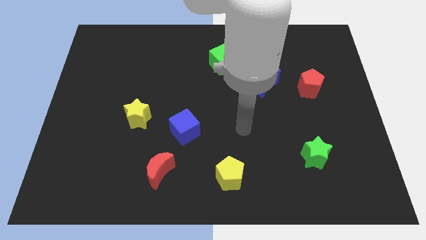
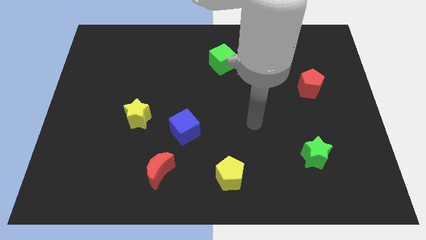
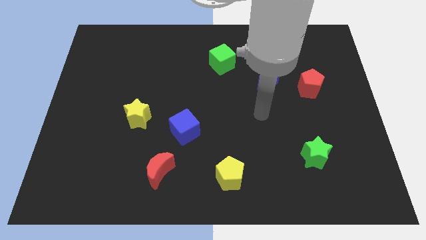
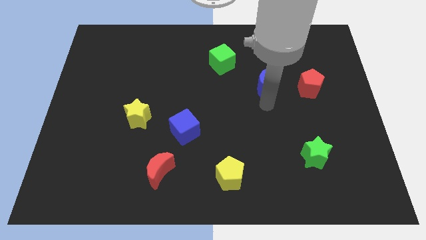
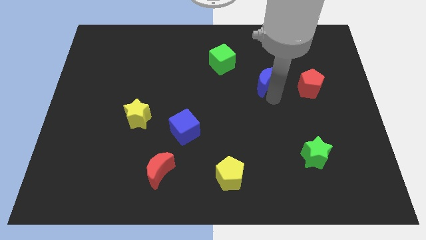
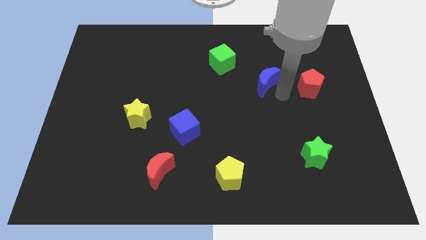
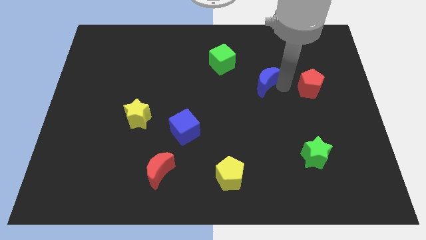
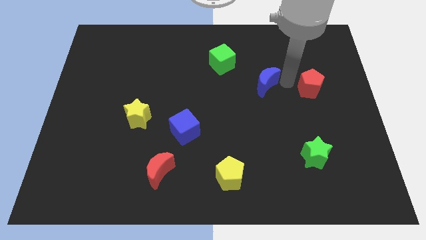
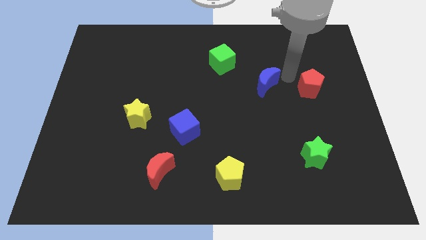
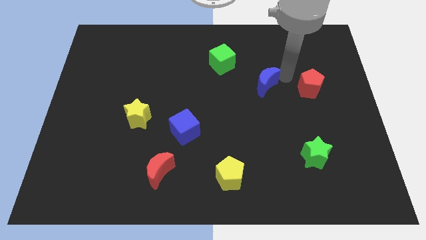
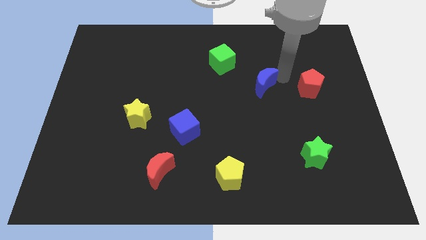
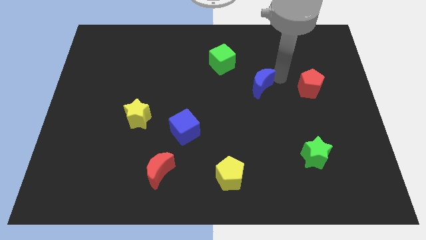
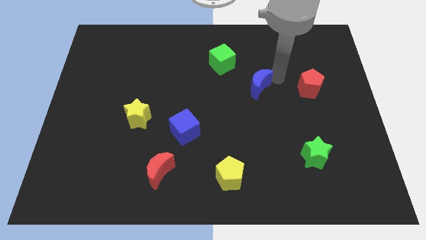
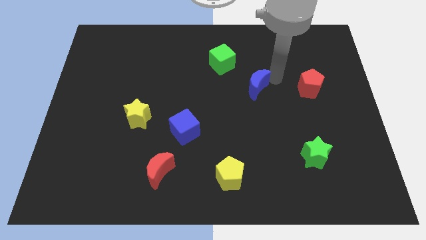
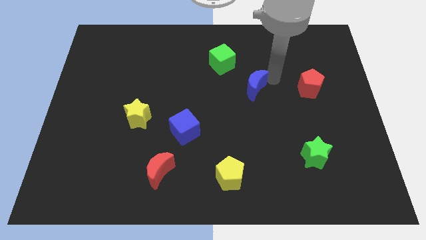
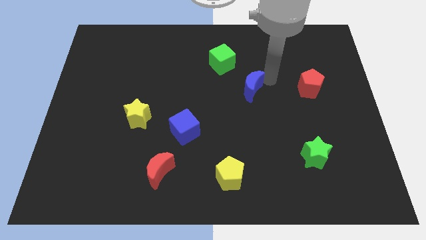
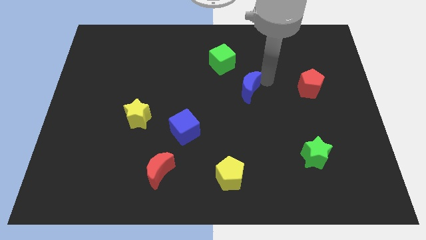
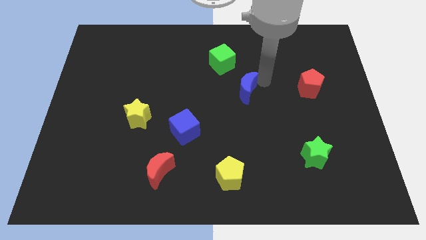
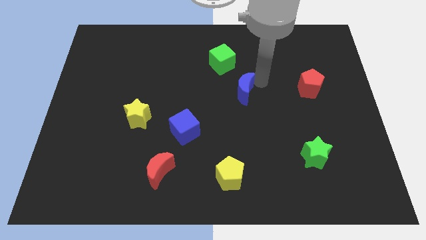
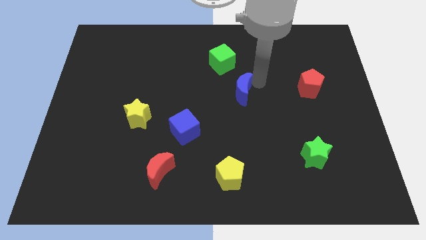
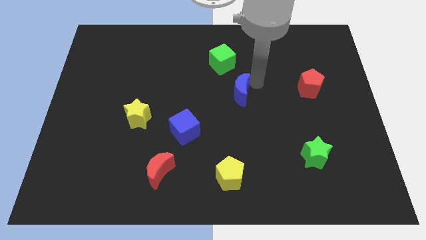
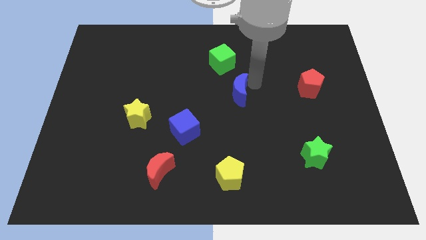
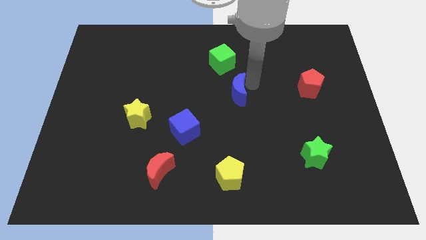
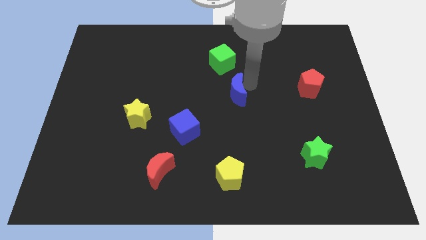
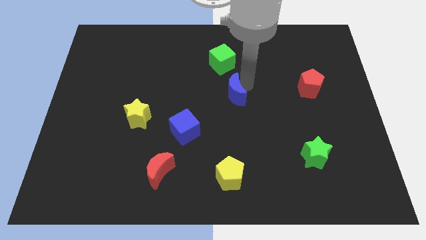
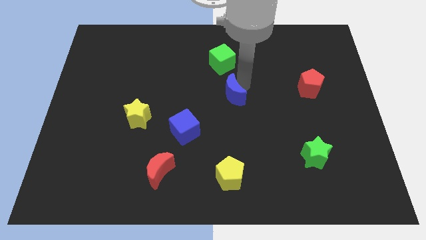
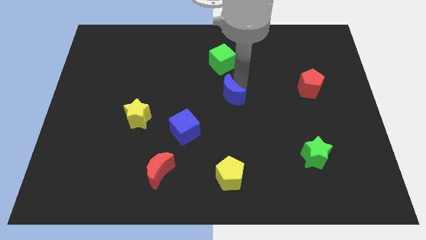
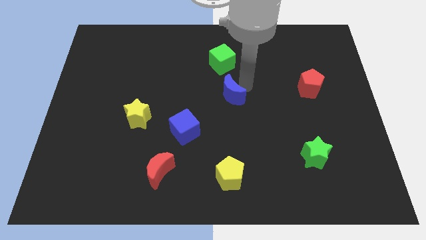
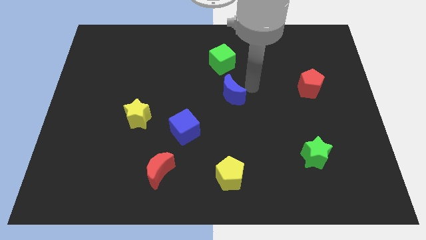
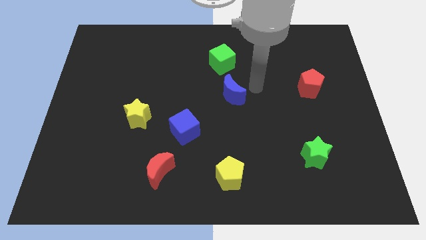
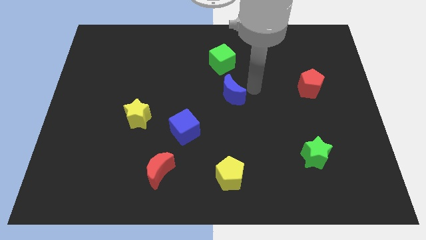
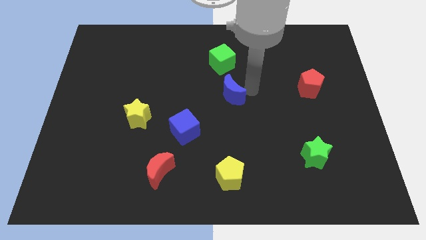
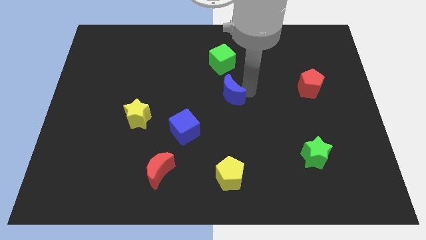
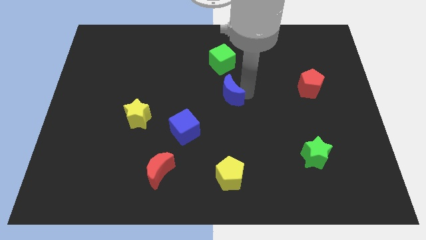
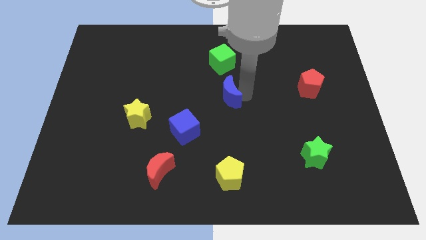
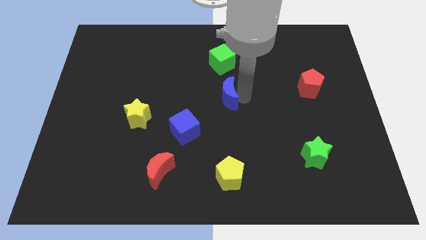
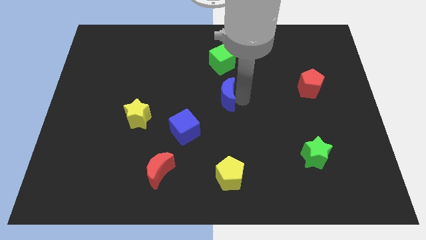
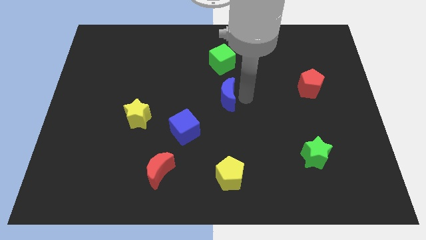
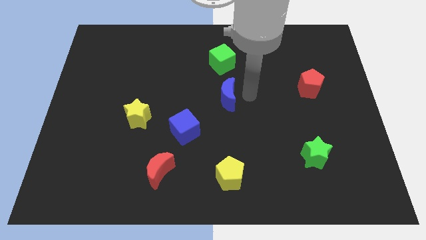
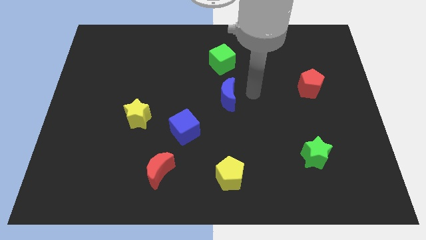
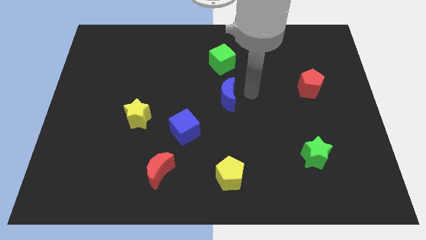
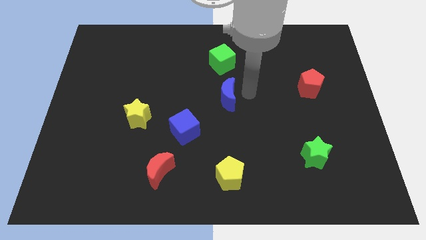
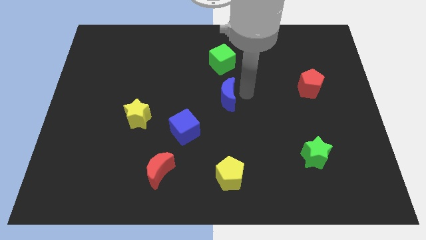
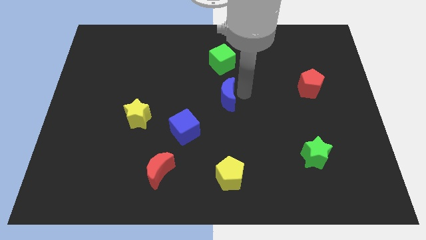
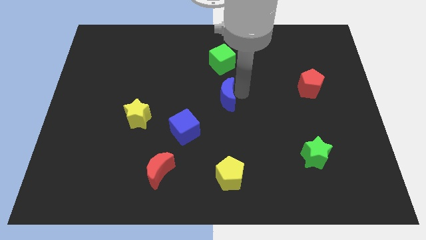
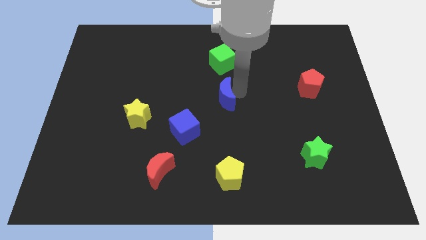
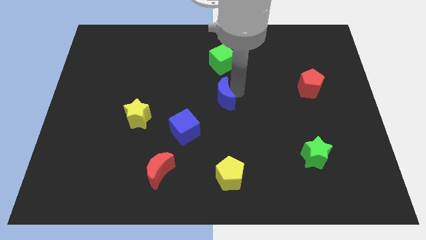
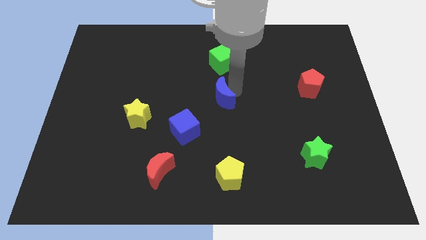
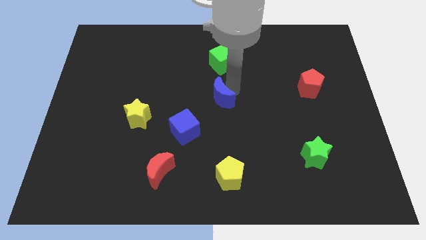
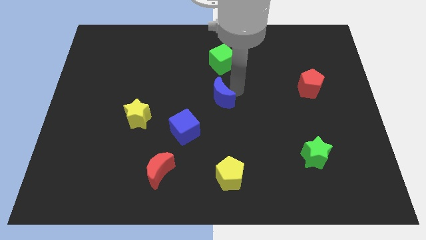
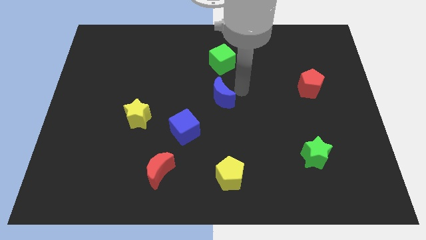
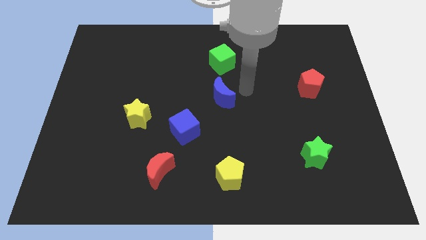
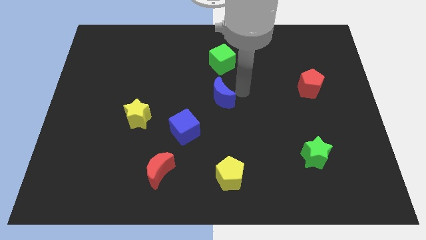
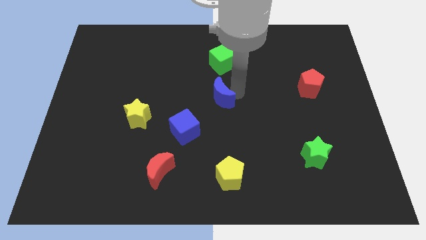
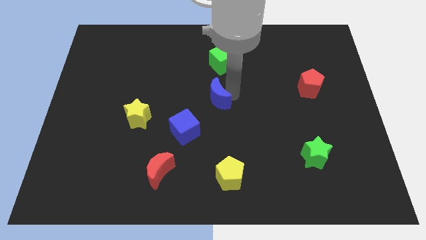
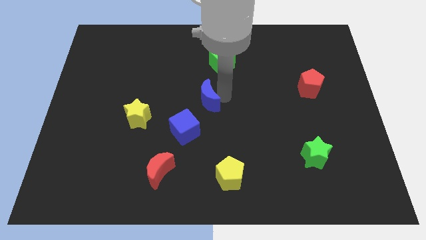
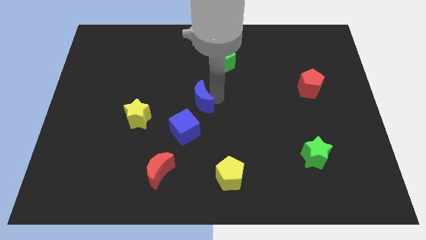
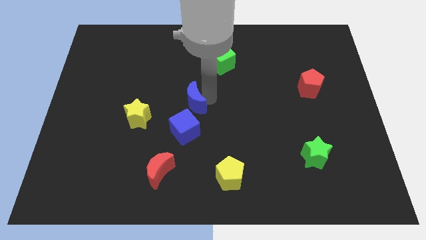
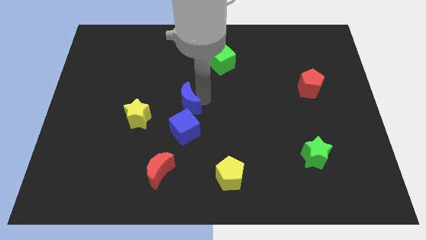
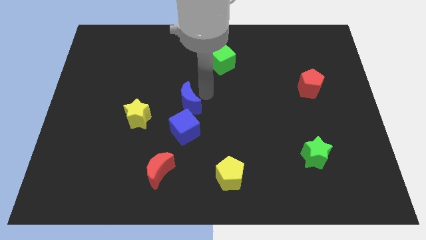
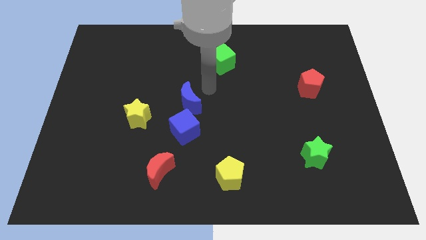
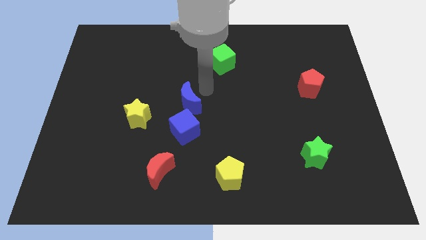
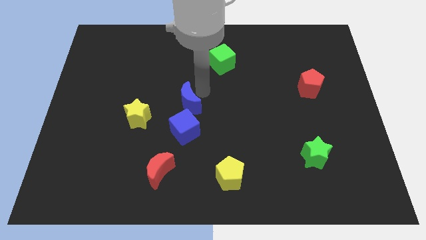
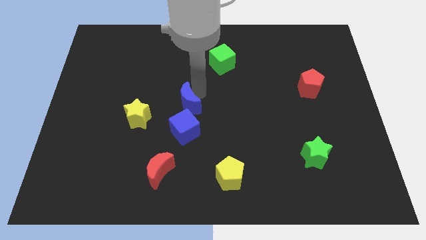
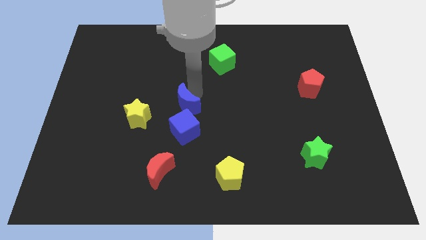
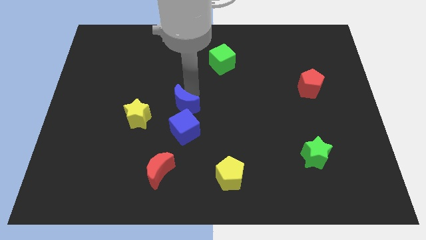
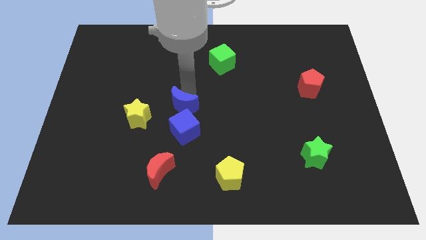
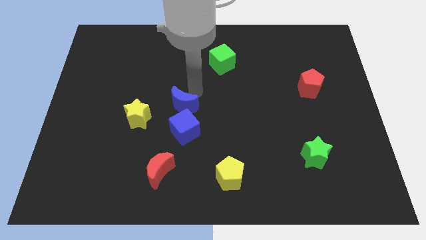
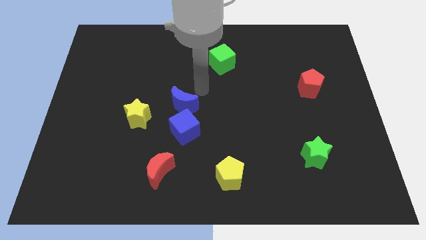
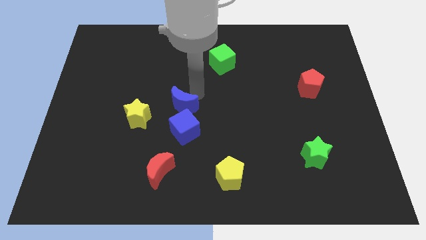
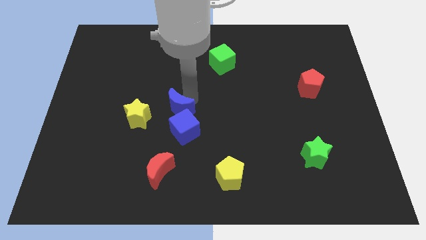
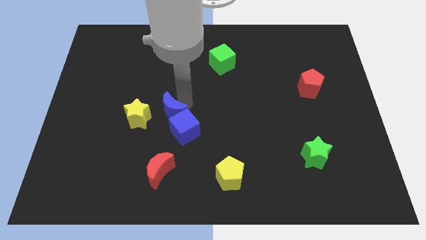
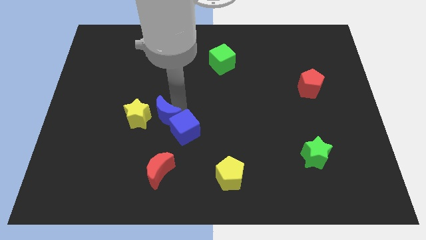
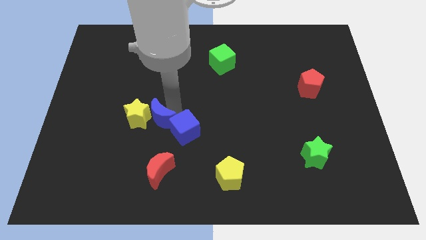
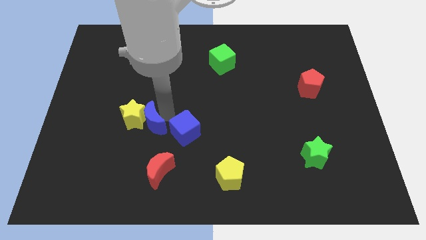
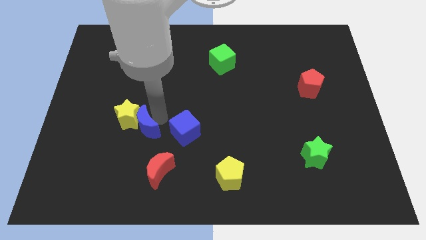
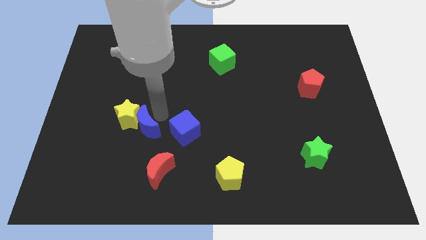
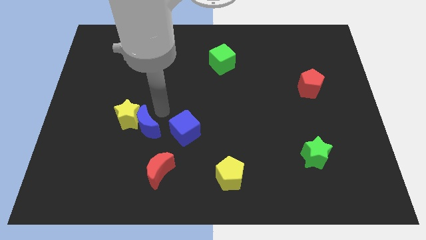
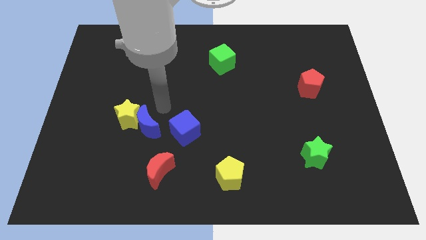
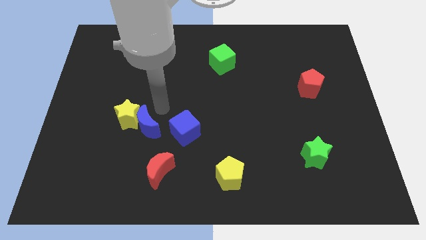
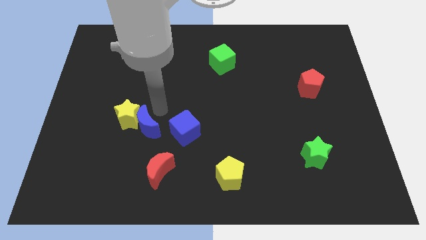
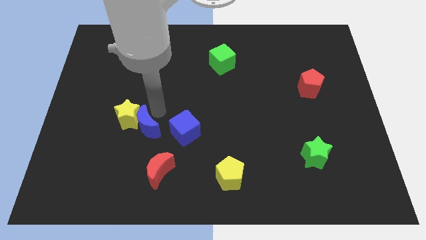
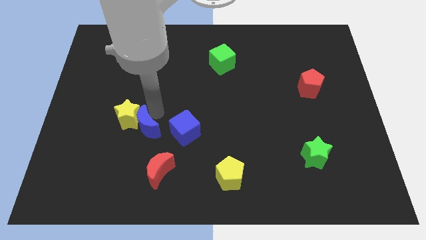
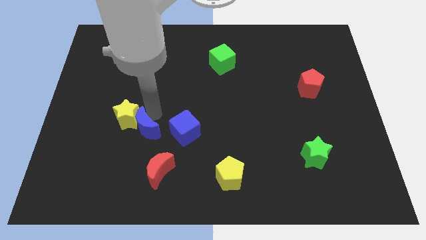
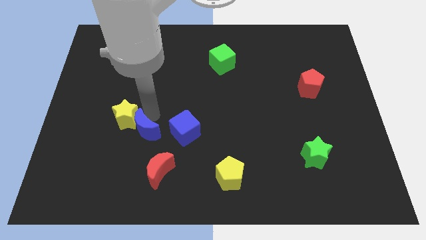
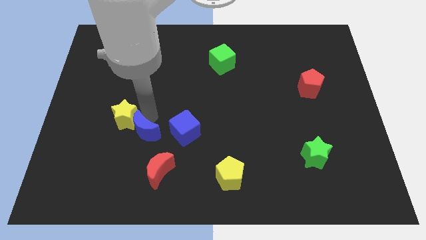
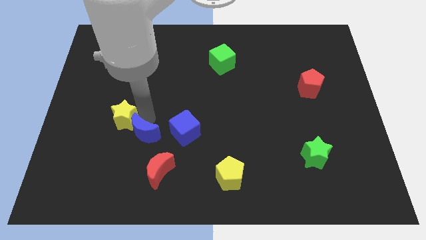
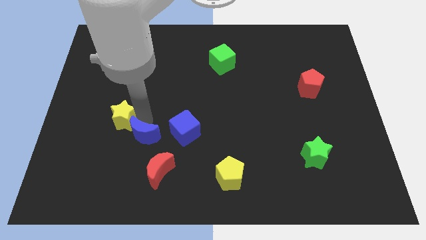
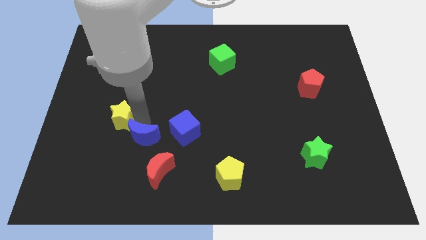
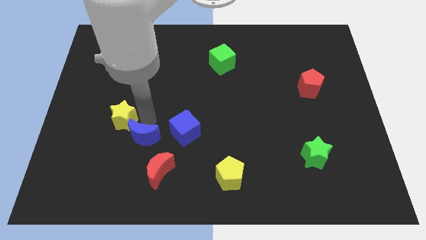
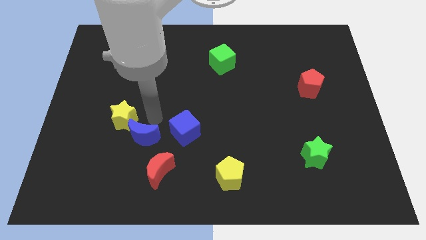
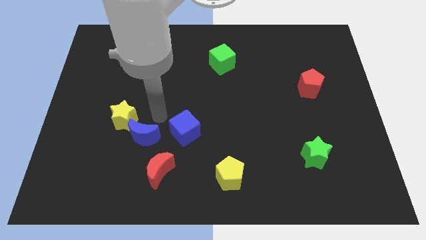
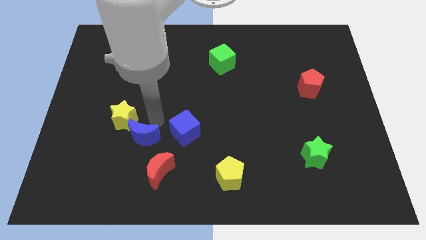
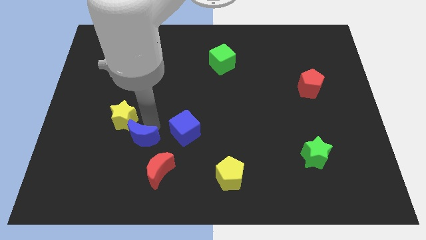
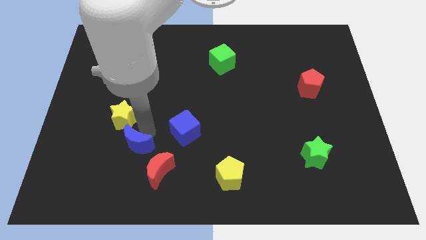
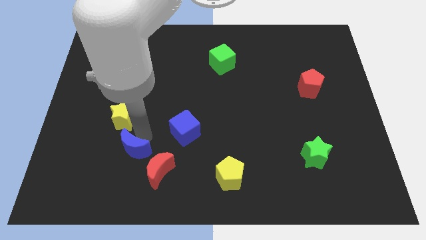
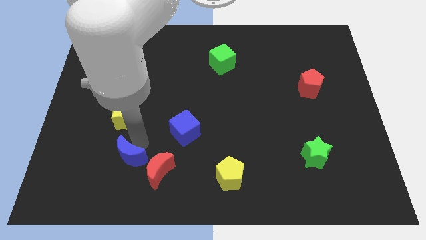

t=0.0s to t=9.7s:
slide the blue moon to the left of the red moon
